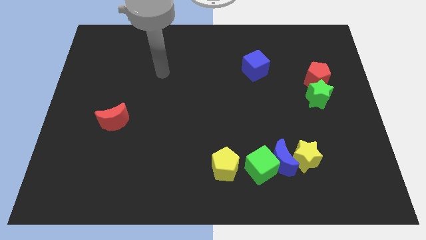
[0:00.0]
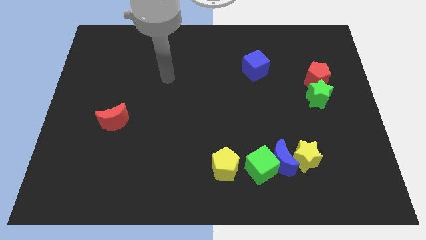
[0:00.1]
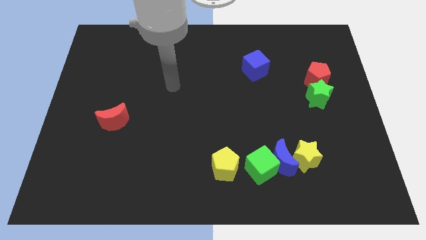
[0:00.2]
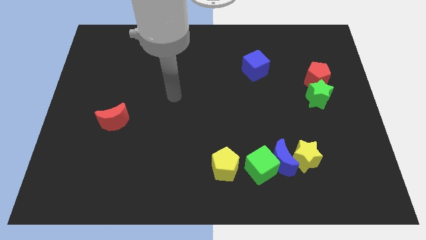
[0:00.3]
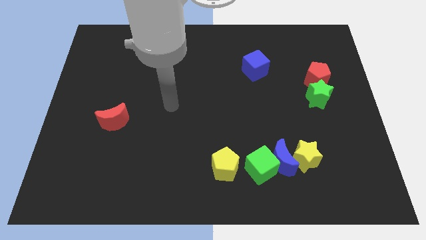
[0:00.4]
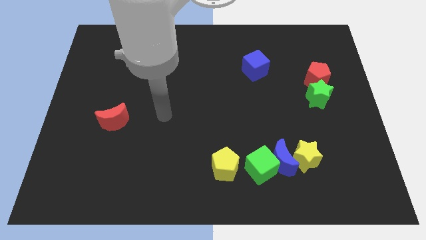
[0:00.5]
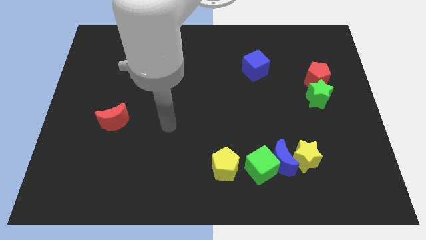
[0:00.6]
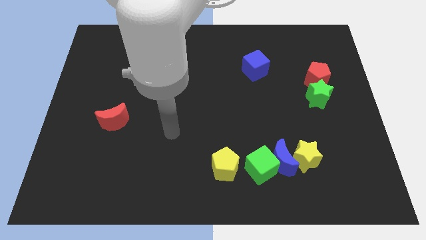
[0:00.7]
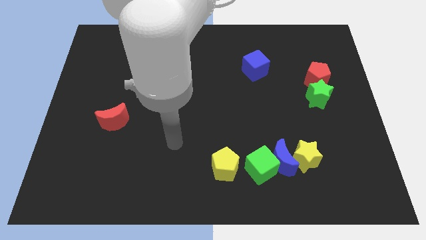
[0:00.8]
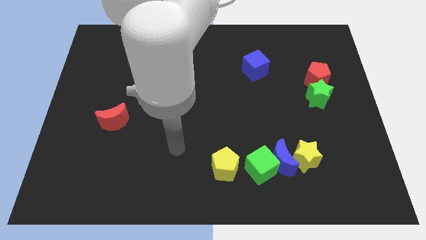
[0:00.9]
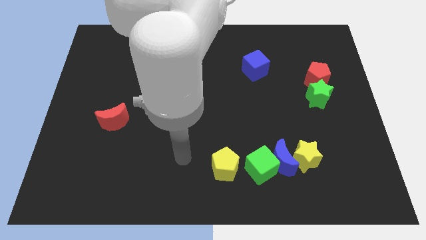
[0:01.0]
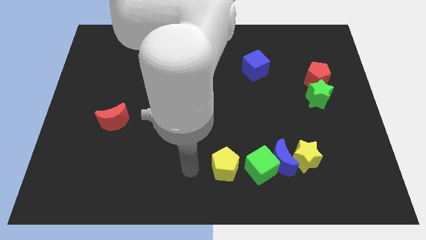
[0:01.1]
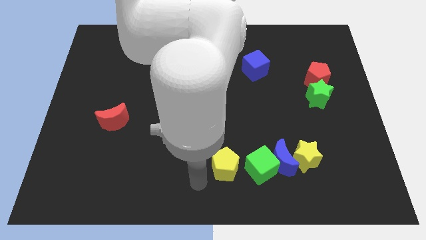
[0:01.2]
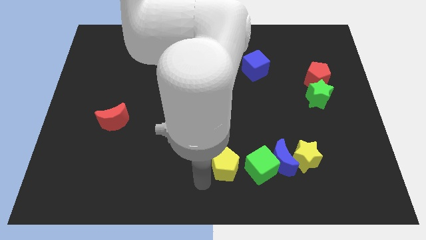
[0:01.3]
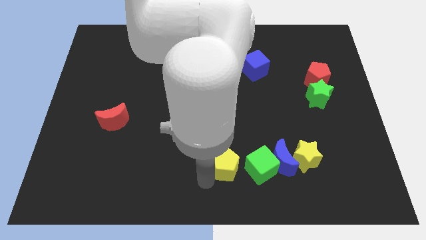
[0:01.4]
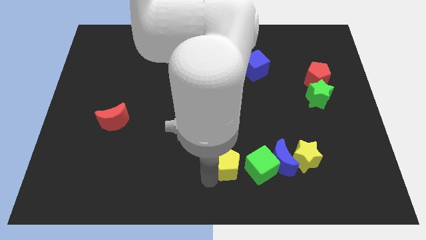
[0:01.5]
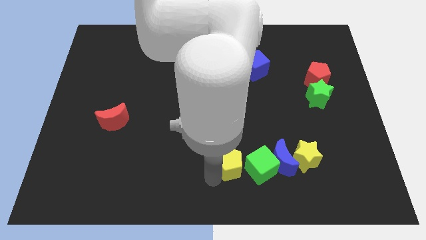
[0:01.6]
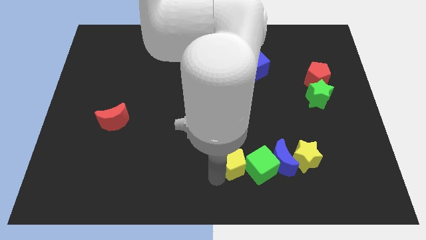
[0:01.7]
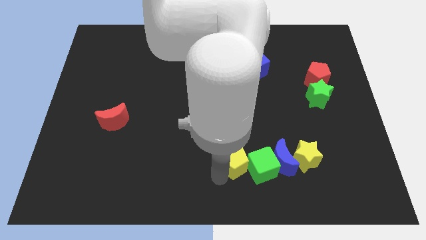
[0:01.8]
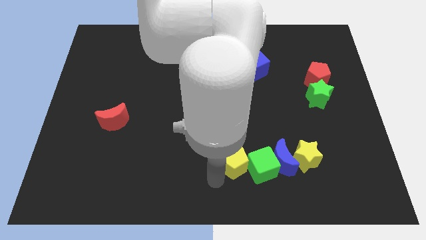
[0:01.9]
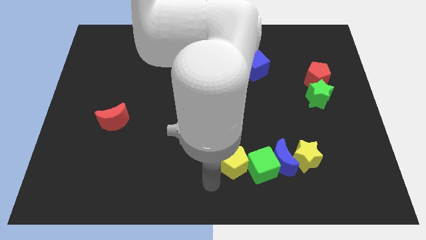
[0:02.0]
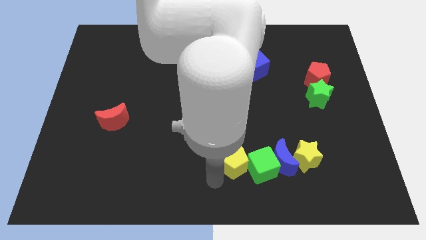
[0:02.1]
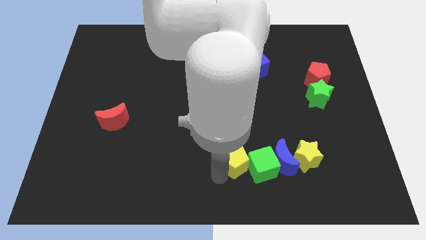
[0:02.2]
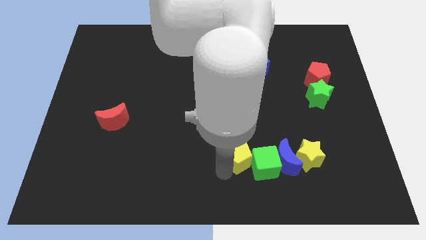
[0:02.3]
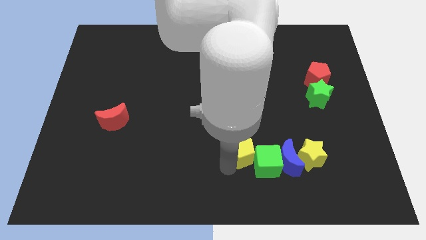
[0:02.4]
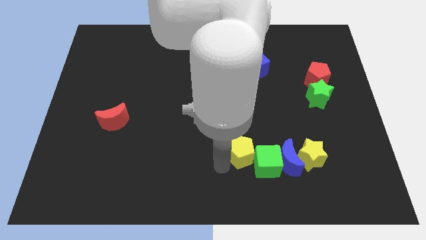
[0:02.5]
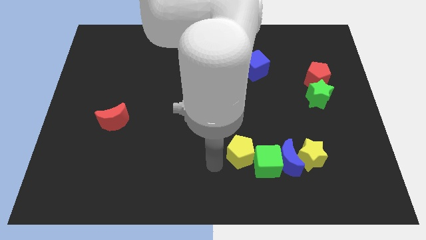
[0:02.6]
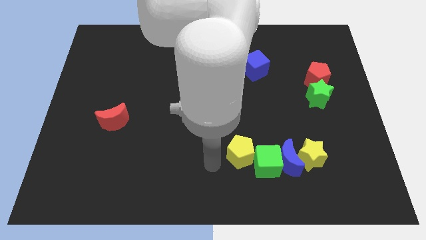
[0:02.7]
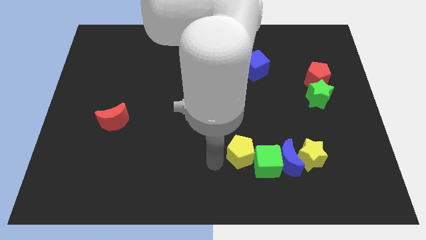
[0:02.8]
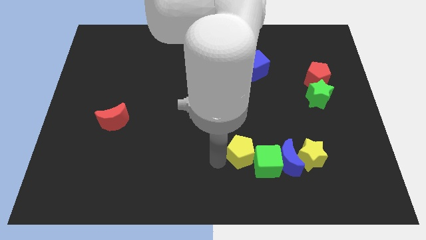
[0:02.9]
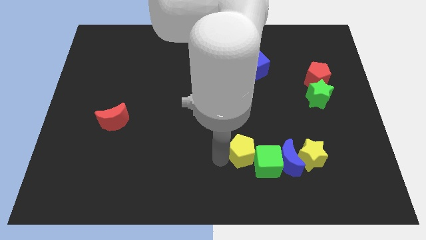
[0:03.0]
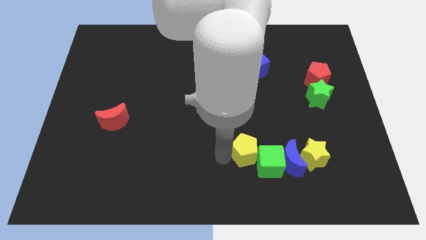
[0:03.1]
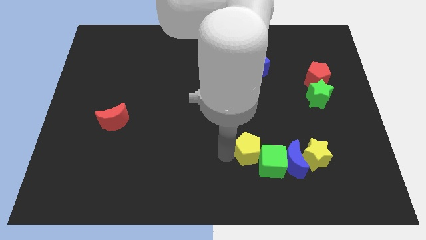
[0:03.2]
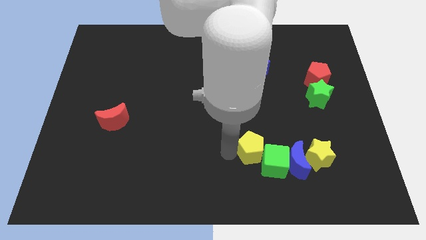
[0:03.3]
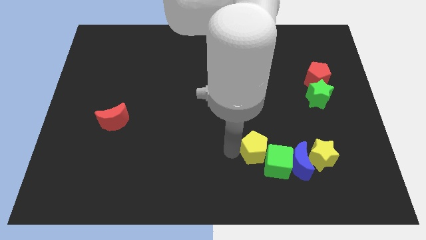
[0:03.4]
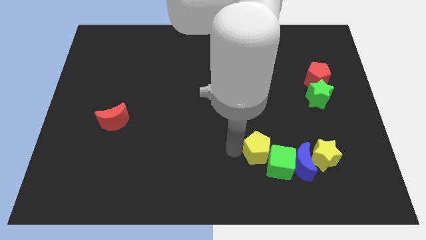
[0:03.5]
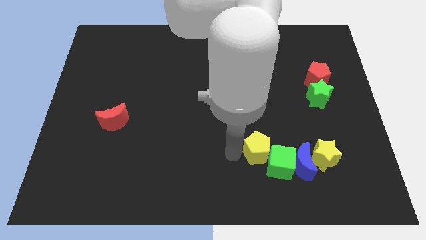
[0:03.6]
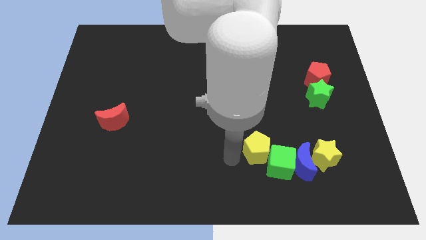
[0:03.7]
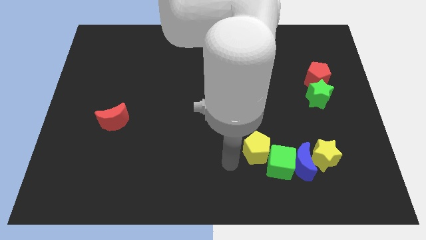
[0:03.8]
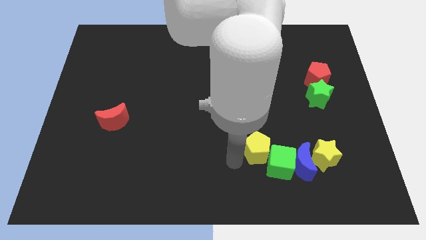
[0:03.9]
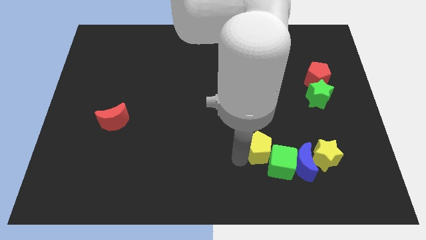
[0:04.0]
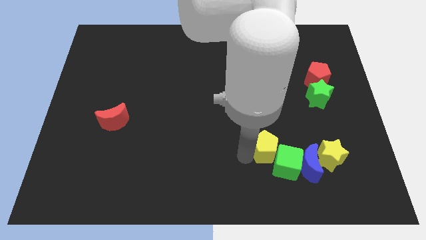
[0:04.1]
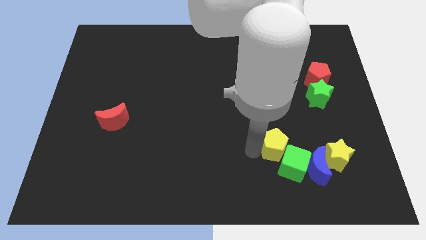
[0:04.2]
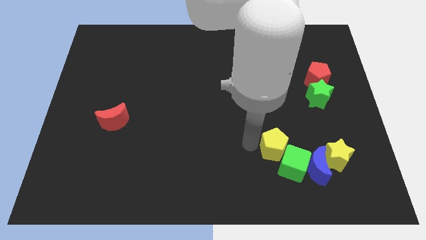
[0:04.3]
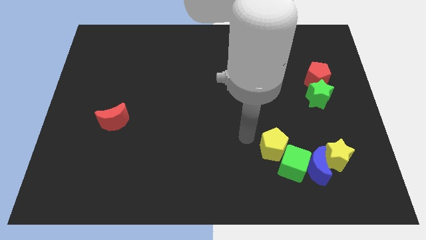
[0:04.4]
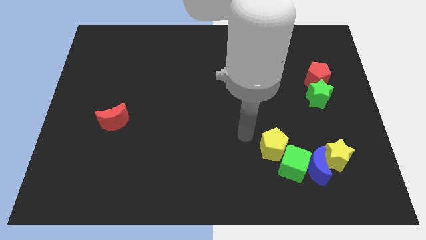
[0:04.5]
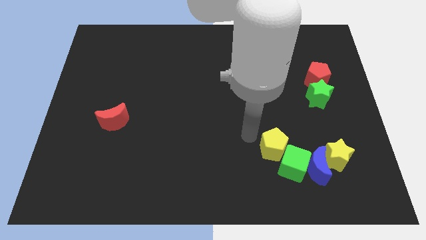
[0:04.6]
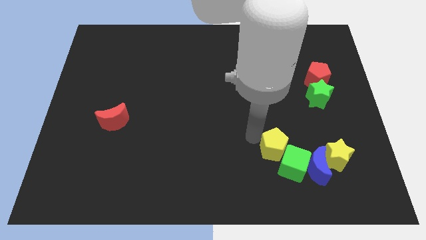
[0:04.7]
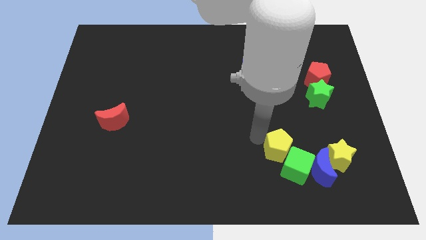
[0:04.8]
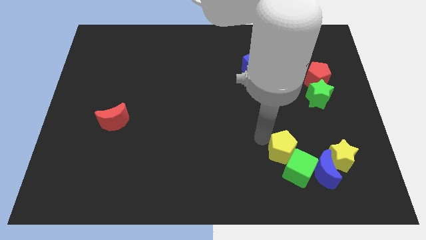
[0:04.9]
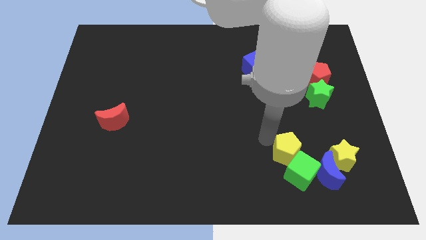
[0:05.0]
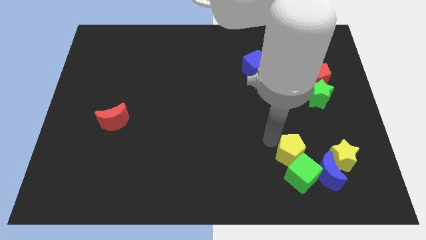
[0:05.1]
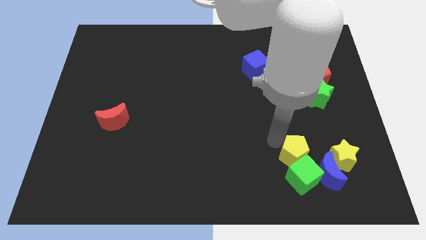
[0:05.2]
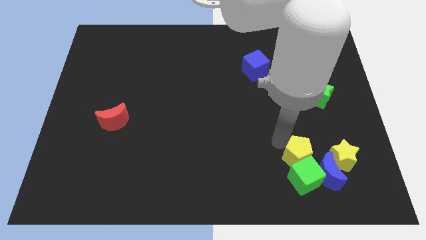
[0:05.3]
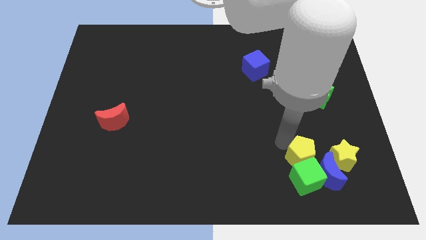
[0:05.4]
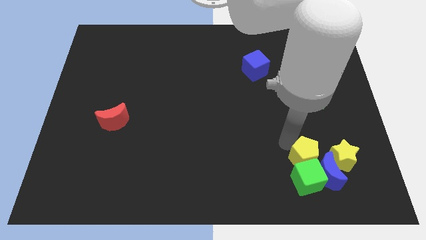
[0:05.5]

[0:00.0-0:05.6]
move the yellow pentagon close to the blue moon

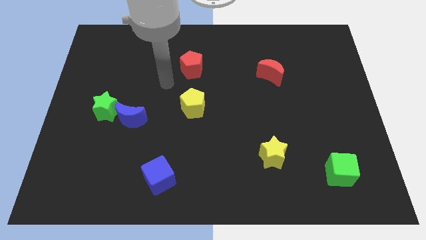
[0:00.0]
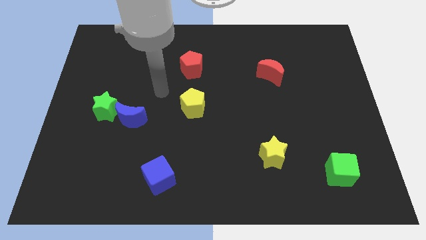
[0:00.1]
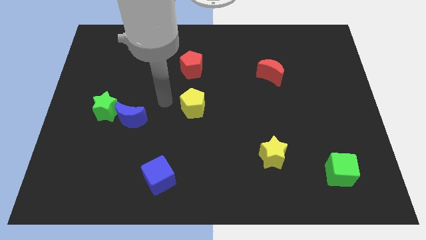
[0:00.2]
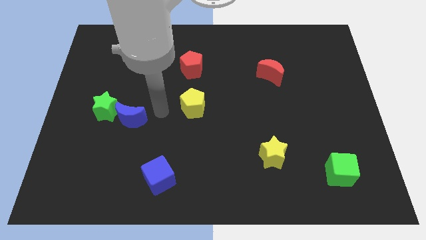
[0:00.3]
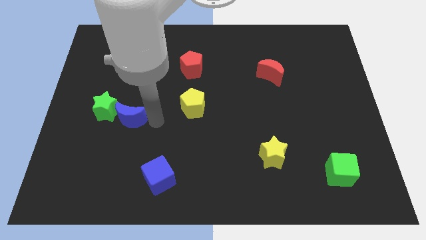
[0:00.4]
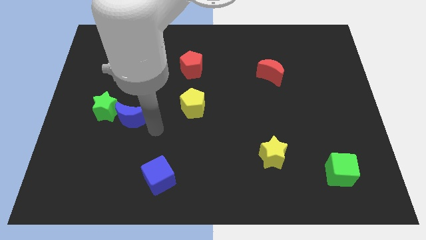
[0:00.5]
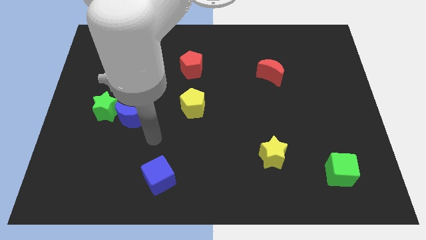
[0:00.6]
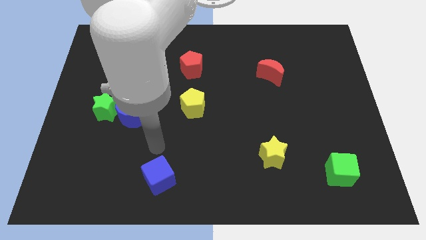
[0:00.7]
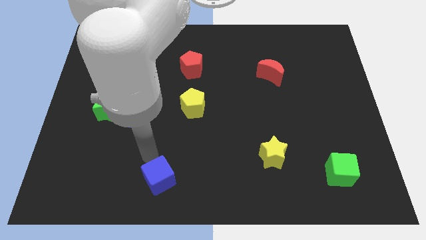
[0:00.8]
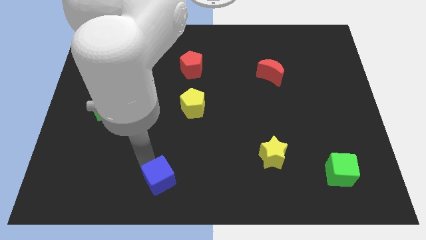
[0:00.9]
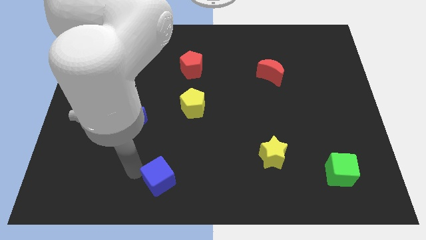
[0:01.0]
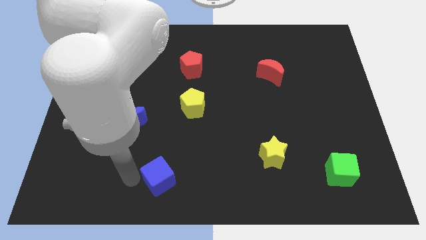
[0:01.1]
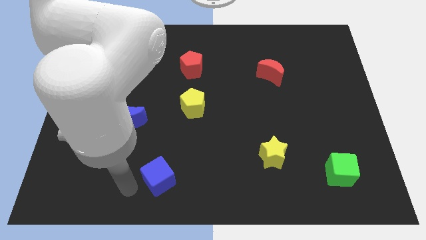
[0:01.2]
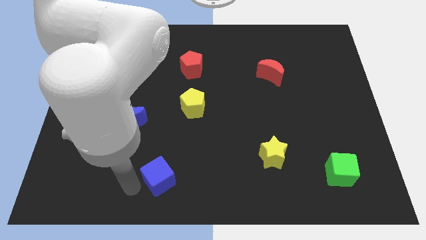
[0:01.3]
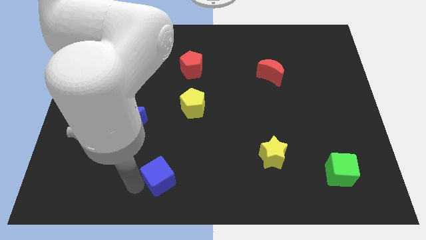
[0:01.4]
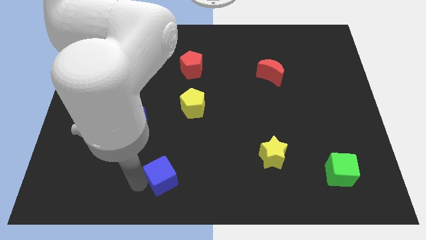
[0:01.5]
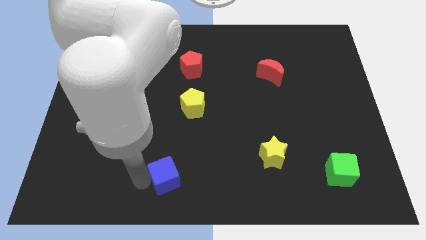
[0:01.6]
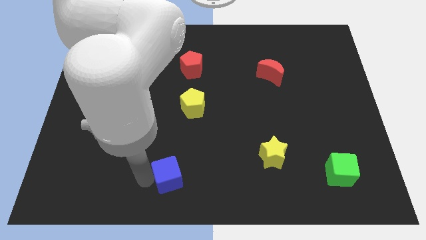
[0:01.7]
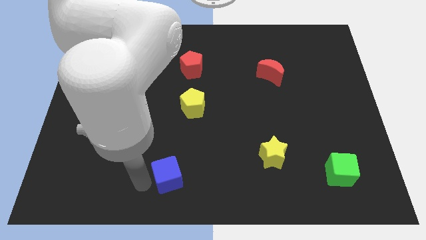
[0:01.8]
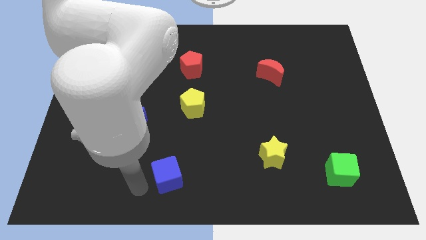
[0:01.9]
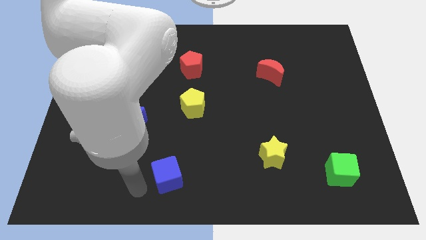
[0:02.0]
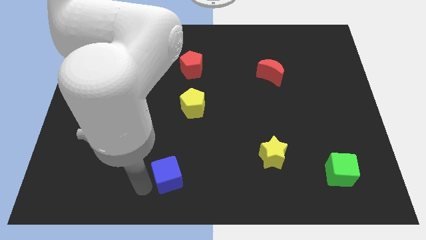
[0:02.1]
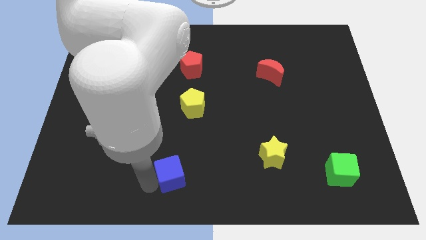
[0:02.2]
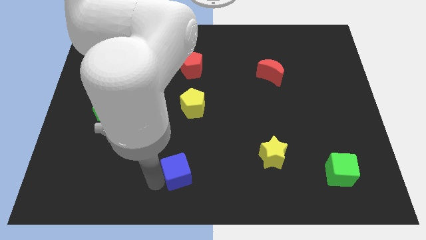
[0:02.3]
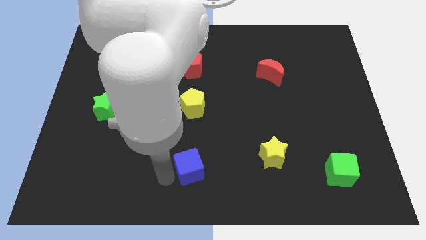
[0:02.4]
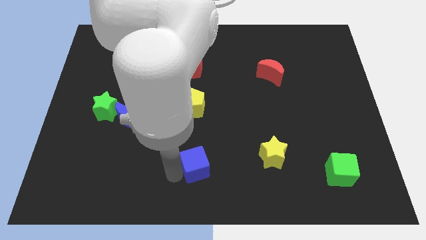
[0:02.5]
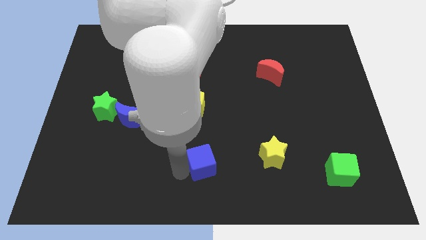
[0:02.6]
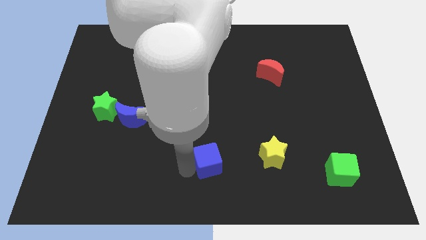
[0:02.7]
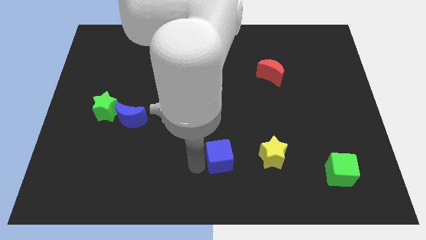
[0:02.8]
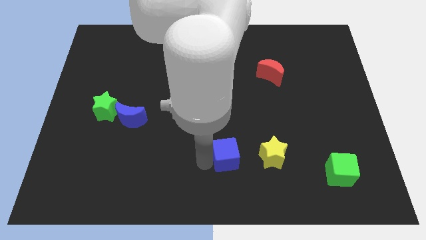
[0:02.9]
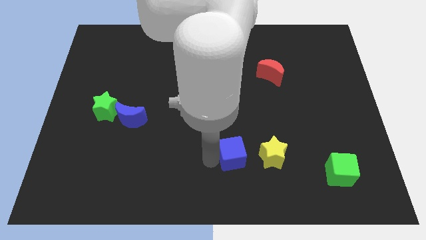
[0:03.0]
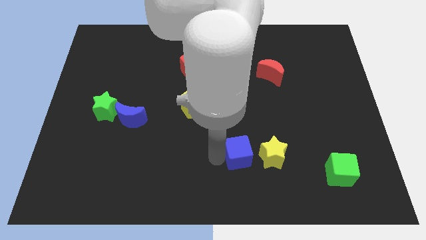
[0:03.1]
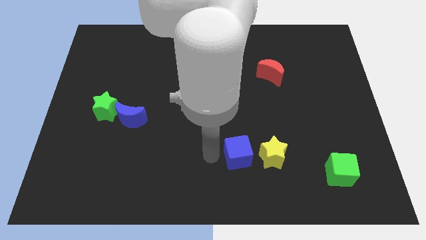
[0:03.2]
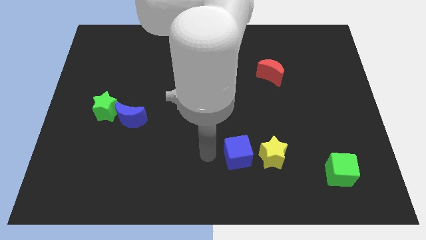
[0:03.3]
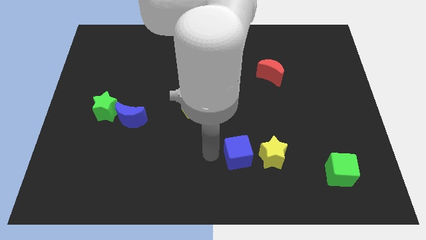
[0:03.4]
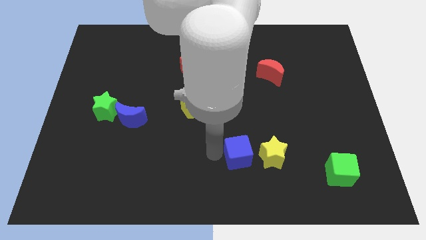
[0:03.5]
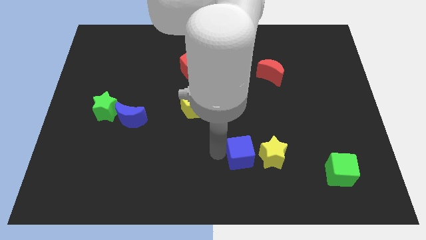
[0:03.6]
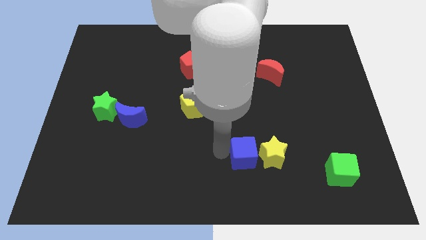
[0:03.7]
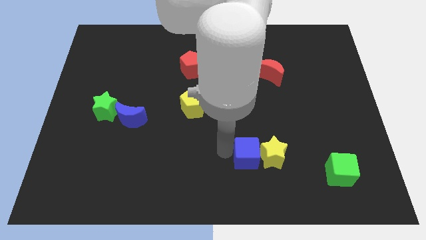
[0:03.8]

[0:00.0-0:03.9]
push the blue cube close to the yellow star
